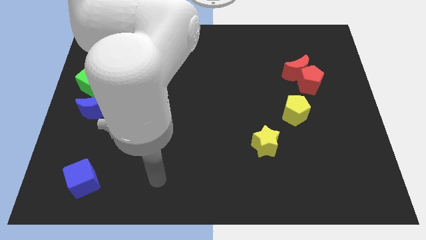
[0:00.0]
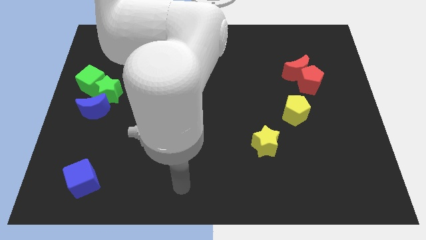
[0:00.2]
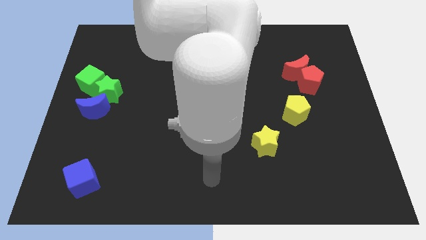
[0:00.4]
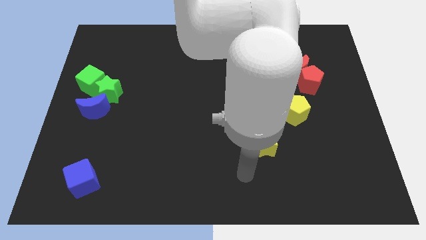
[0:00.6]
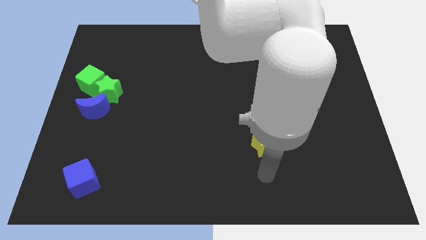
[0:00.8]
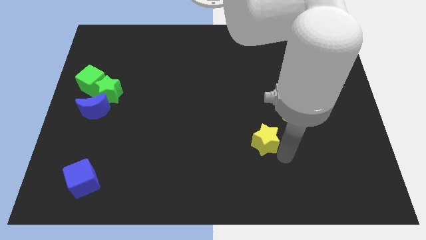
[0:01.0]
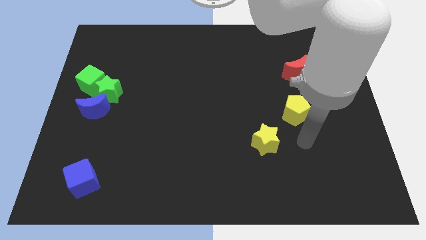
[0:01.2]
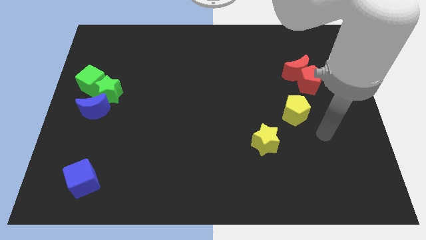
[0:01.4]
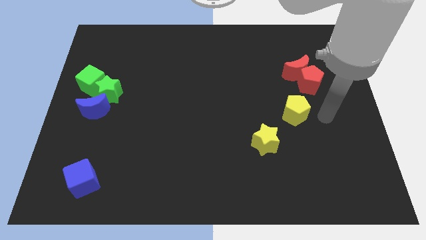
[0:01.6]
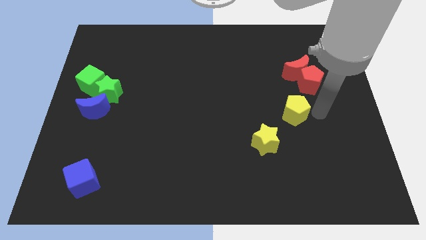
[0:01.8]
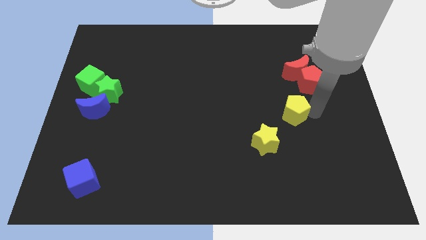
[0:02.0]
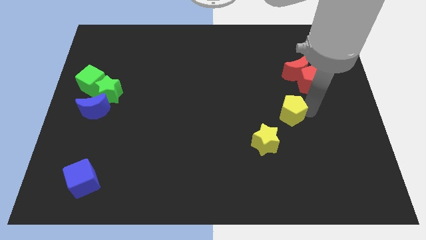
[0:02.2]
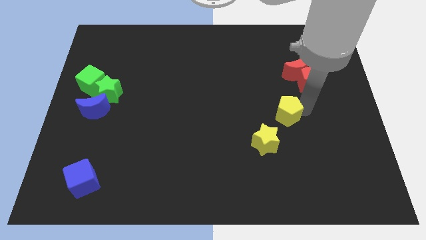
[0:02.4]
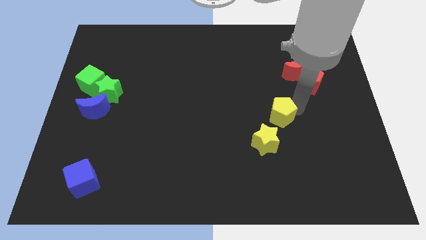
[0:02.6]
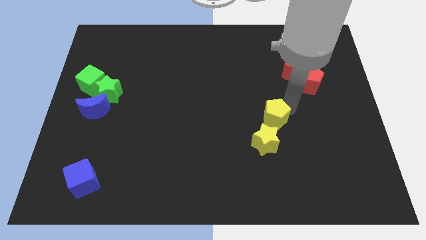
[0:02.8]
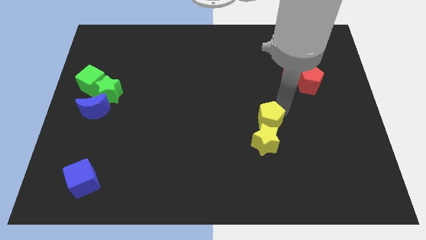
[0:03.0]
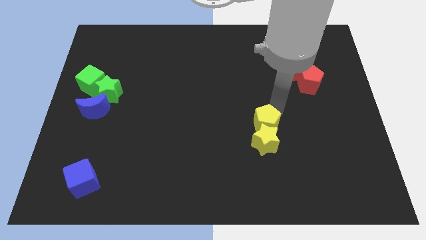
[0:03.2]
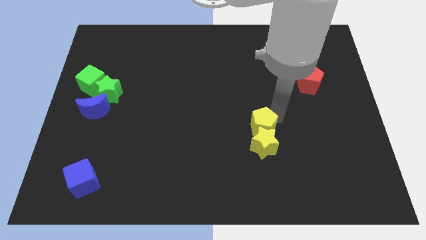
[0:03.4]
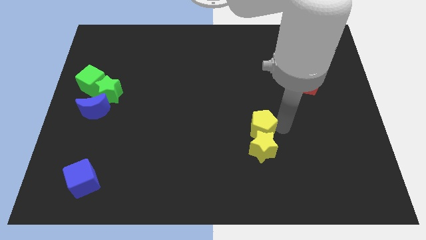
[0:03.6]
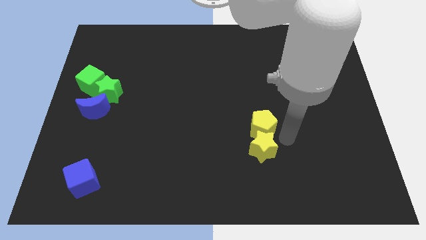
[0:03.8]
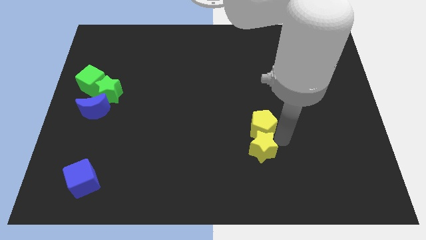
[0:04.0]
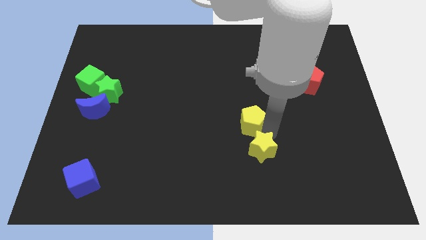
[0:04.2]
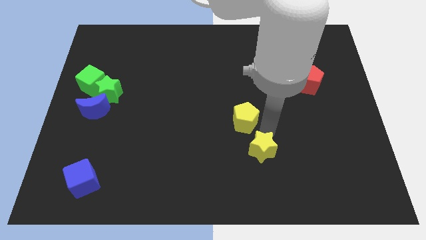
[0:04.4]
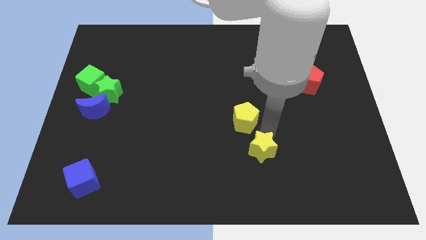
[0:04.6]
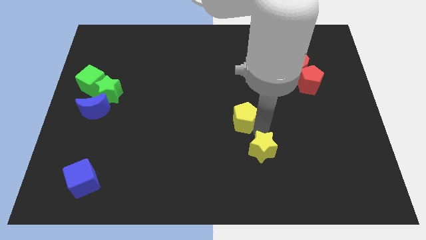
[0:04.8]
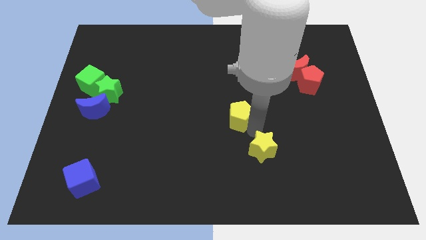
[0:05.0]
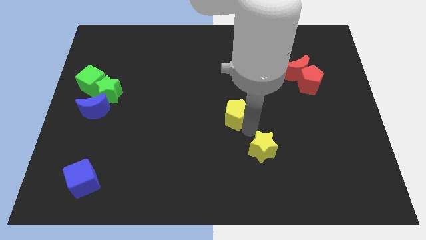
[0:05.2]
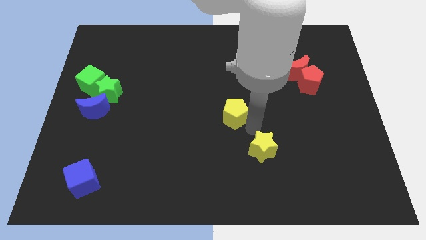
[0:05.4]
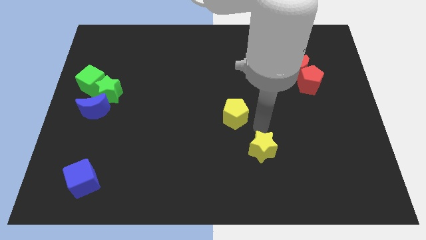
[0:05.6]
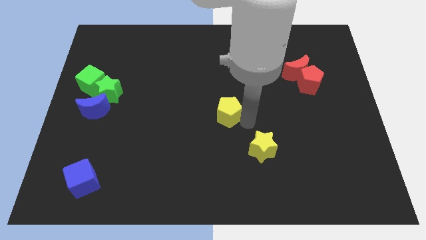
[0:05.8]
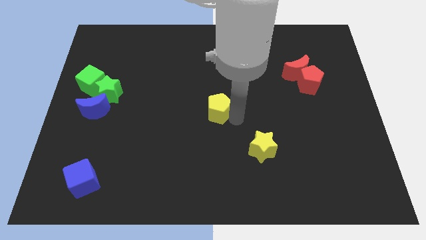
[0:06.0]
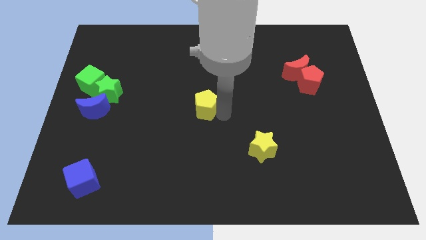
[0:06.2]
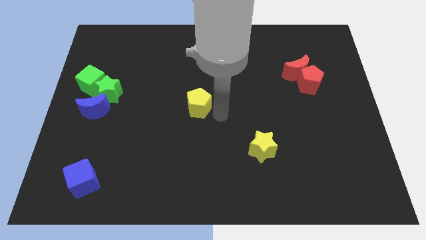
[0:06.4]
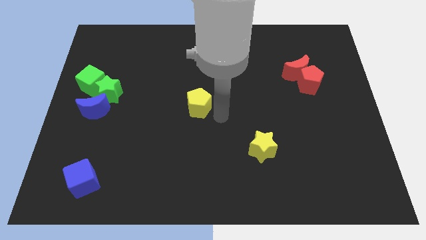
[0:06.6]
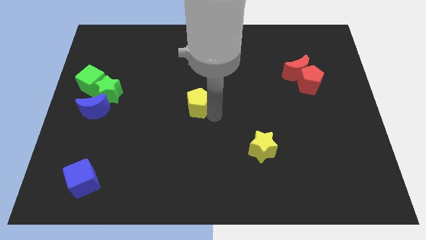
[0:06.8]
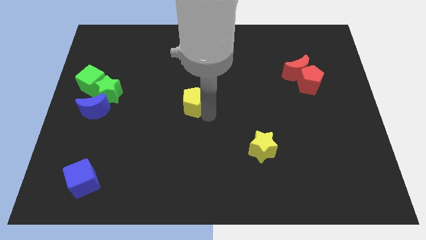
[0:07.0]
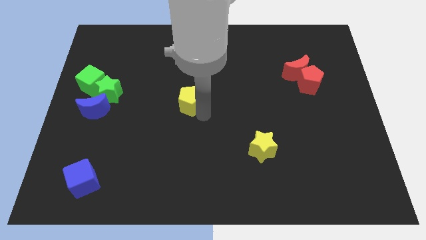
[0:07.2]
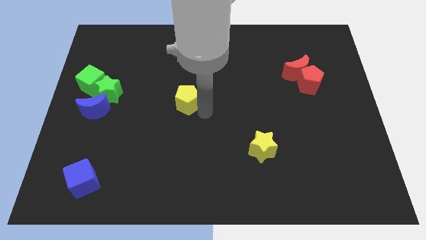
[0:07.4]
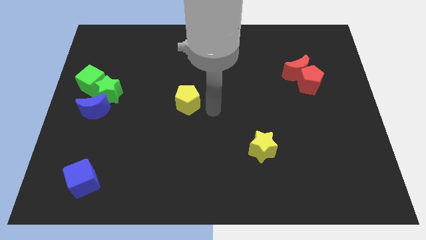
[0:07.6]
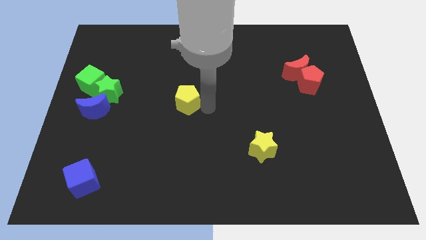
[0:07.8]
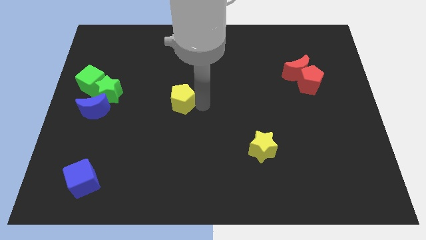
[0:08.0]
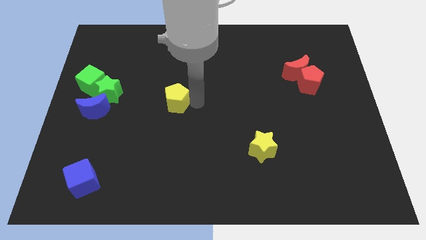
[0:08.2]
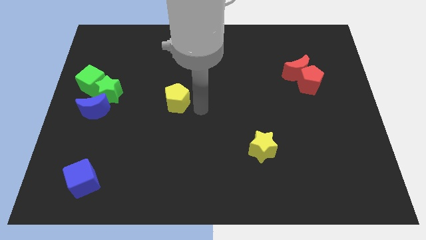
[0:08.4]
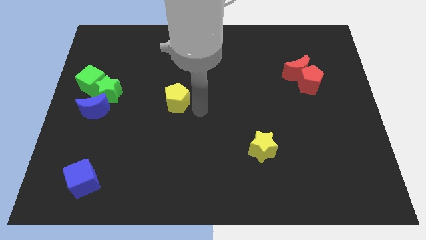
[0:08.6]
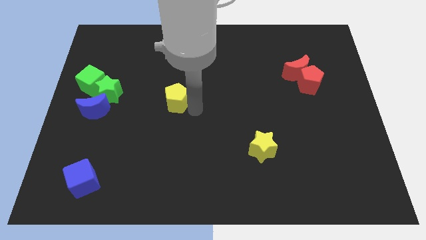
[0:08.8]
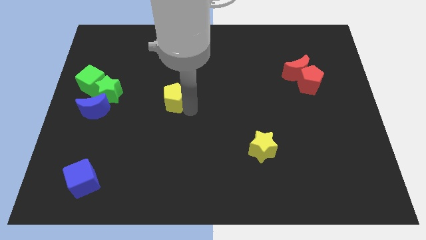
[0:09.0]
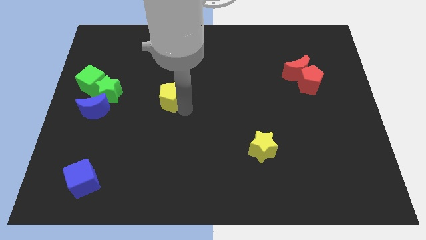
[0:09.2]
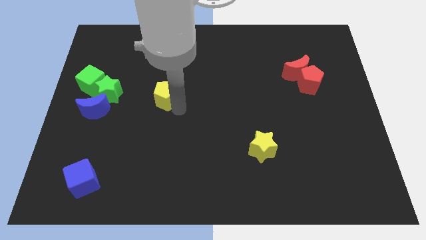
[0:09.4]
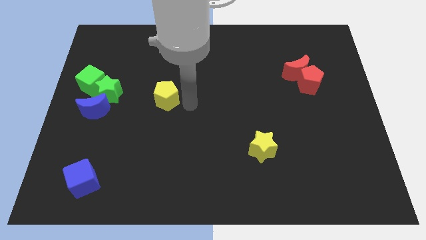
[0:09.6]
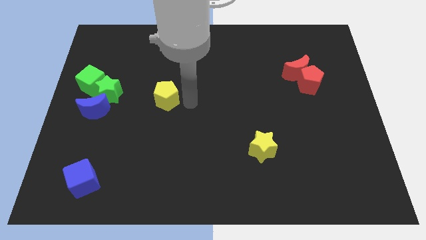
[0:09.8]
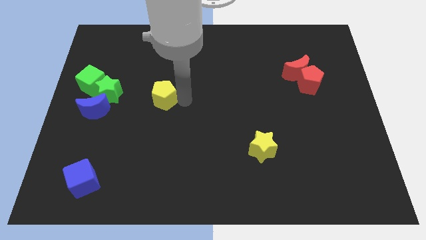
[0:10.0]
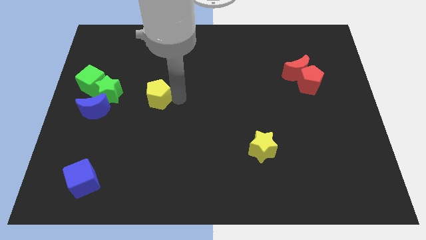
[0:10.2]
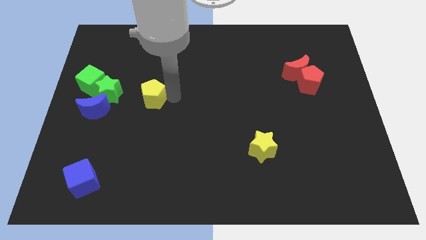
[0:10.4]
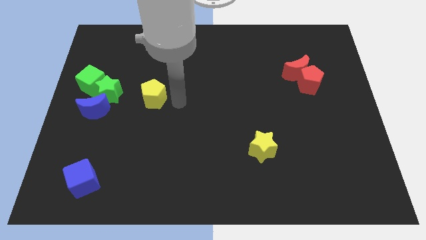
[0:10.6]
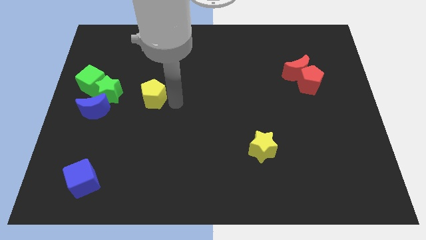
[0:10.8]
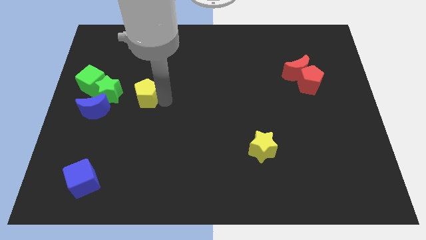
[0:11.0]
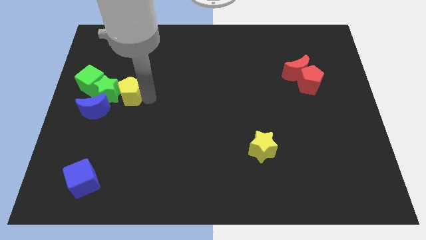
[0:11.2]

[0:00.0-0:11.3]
move the yellow pentagon next to the green star

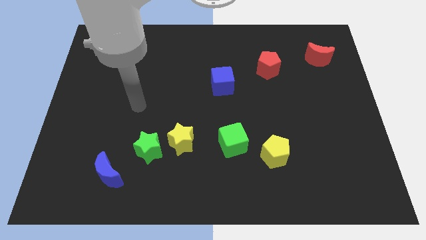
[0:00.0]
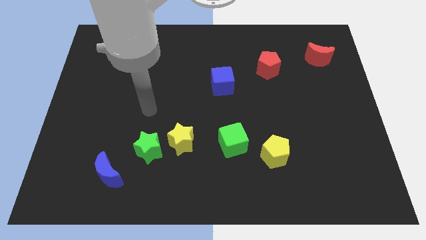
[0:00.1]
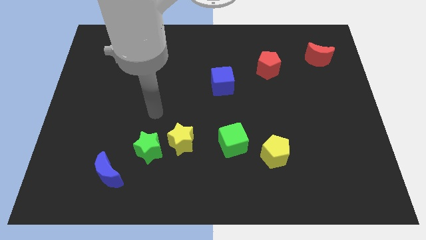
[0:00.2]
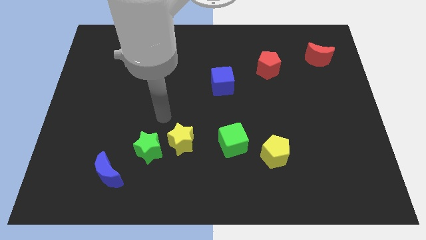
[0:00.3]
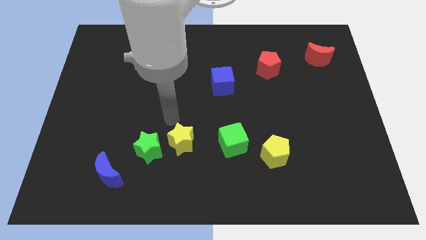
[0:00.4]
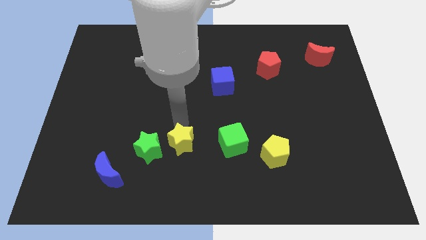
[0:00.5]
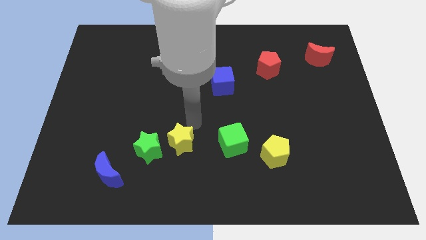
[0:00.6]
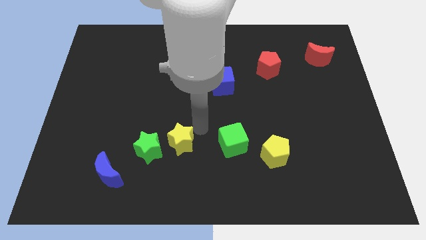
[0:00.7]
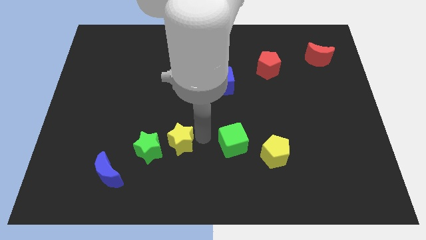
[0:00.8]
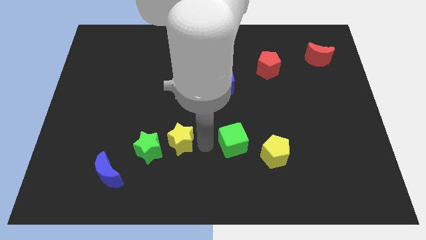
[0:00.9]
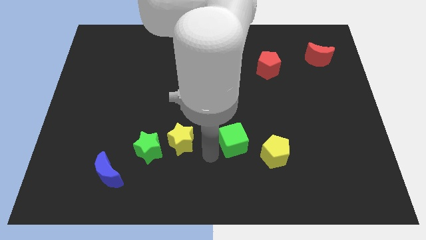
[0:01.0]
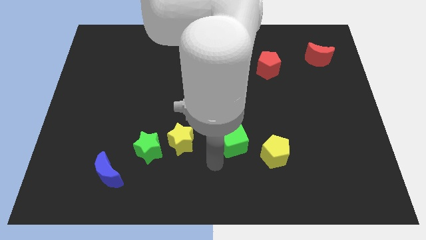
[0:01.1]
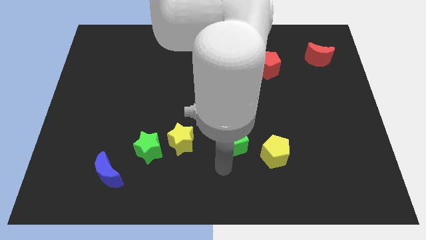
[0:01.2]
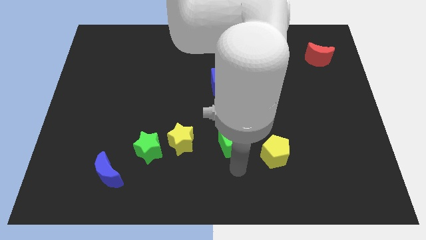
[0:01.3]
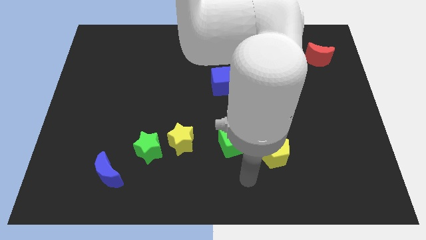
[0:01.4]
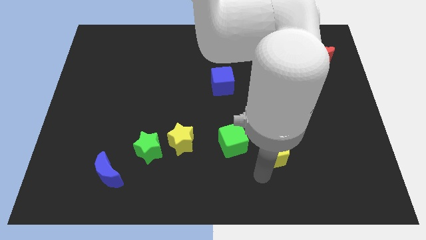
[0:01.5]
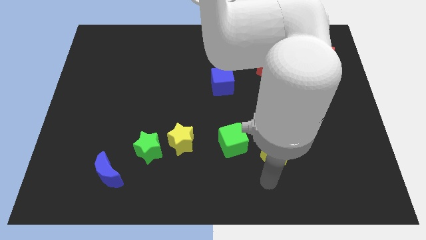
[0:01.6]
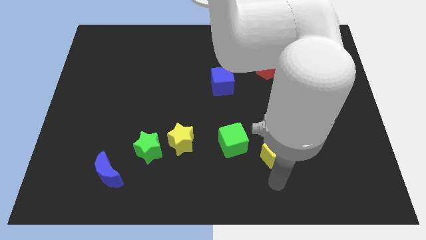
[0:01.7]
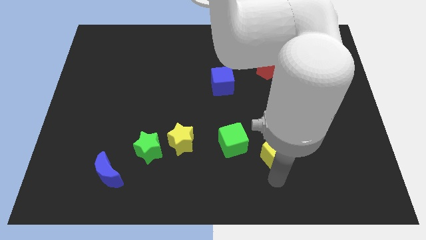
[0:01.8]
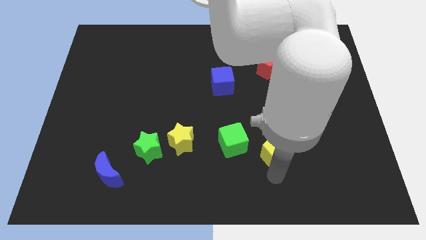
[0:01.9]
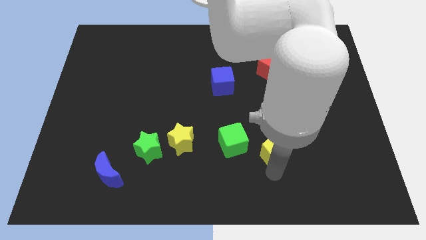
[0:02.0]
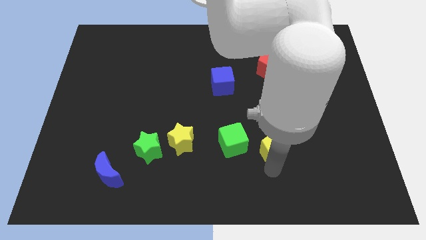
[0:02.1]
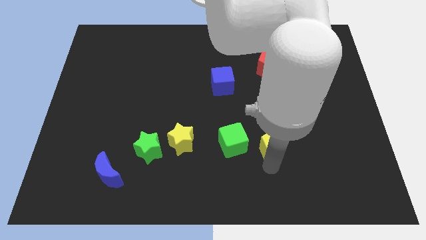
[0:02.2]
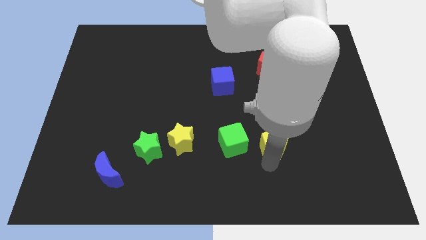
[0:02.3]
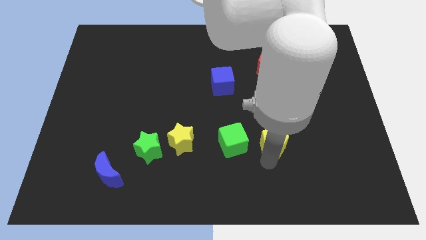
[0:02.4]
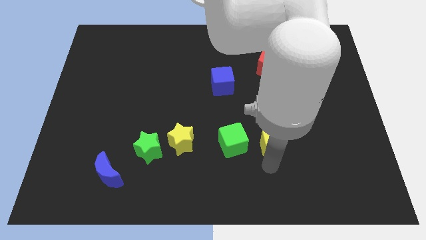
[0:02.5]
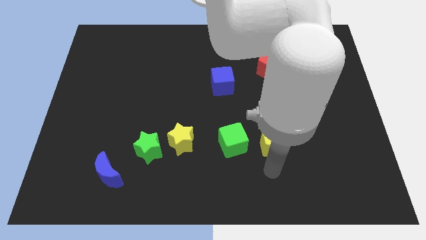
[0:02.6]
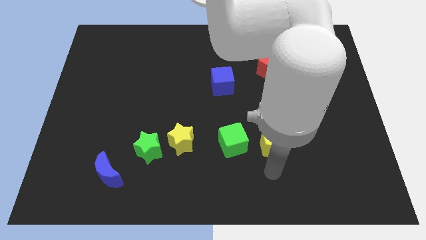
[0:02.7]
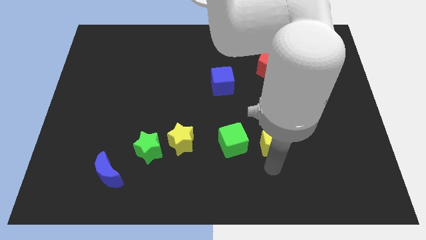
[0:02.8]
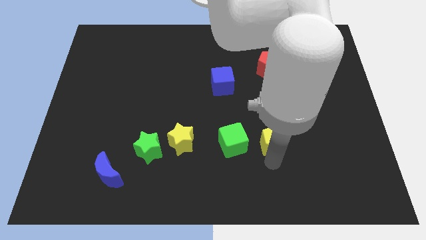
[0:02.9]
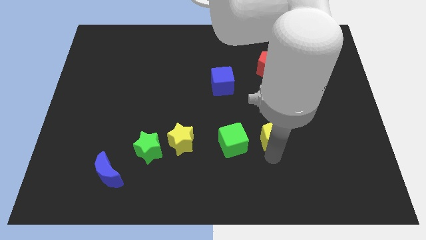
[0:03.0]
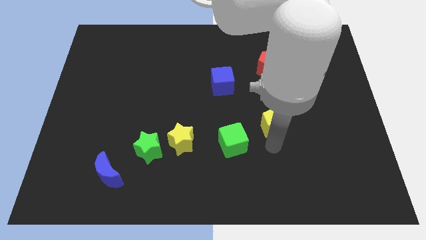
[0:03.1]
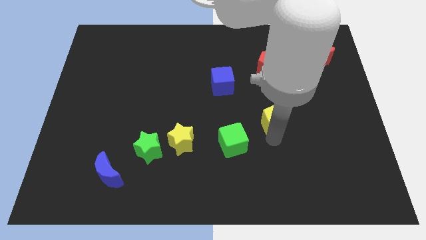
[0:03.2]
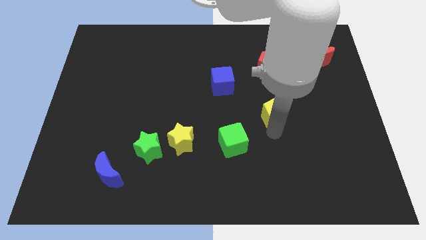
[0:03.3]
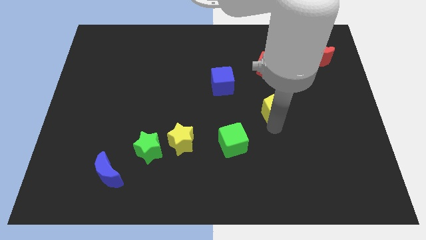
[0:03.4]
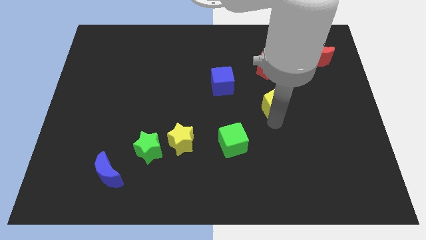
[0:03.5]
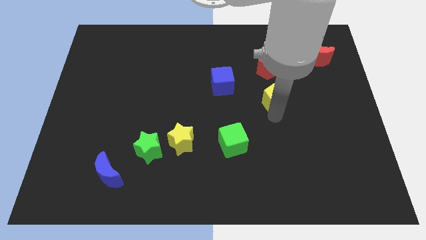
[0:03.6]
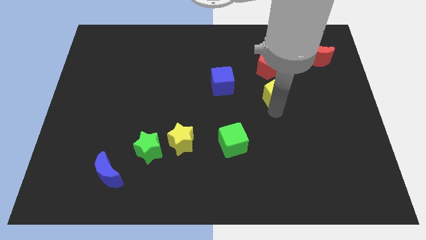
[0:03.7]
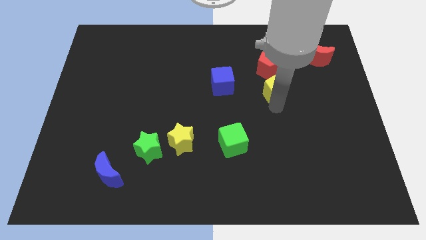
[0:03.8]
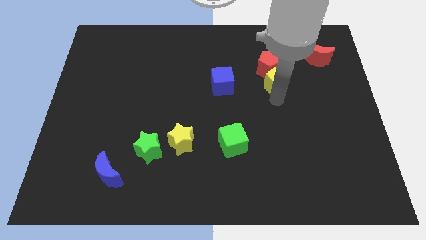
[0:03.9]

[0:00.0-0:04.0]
move the yellow pentagon close to the red pentagon
